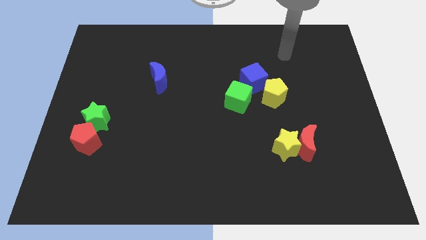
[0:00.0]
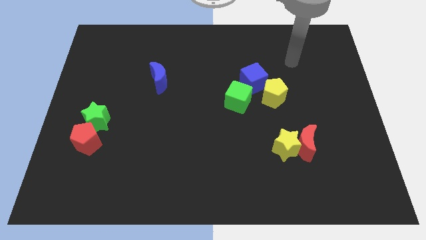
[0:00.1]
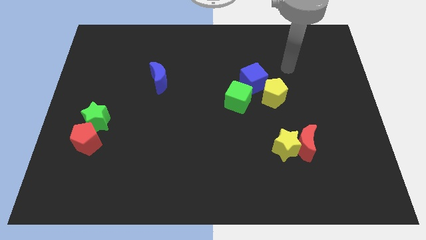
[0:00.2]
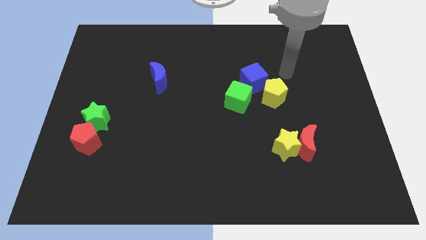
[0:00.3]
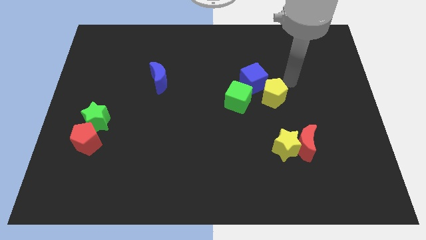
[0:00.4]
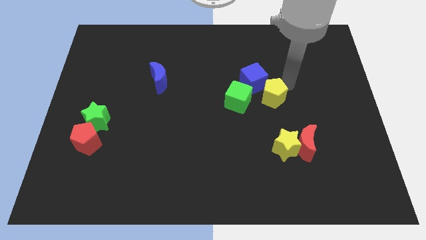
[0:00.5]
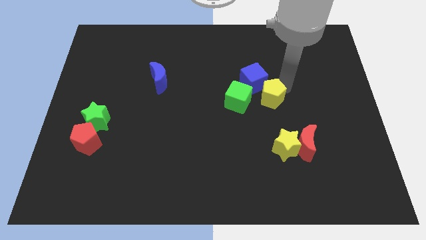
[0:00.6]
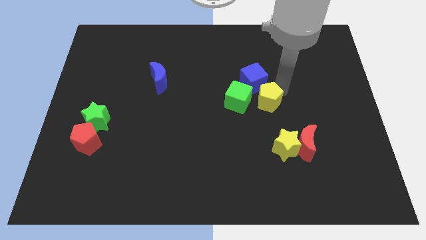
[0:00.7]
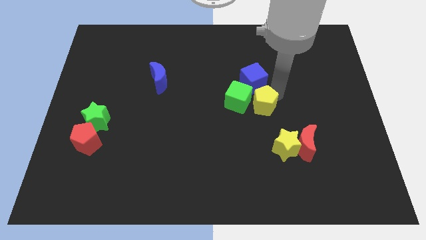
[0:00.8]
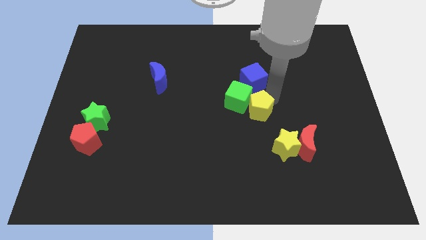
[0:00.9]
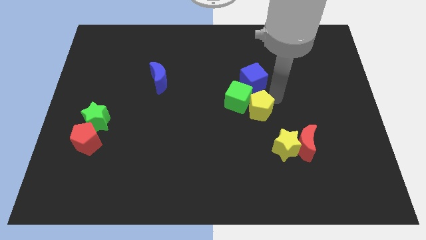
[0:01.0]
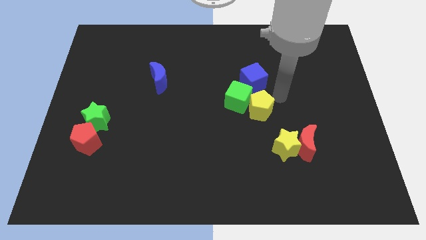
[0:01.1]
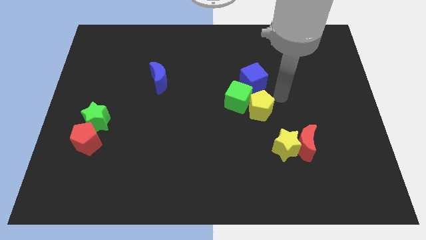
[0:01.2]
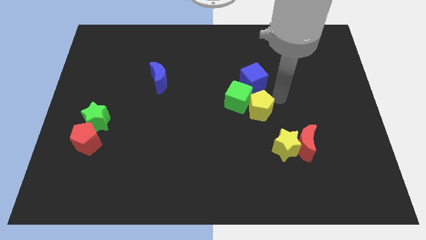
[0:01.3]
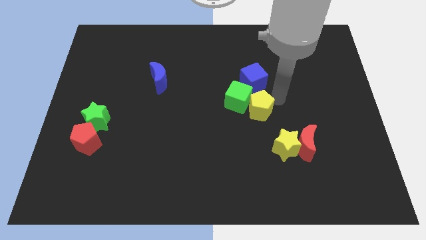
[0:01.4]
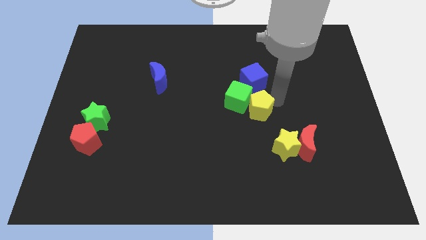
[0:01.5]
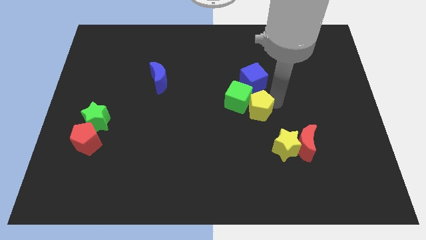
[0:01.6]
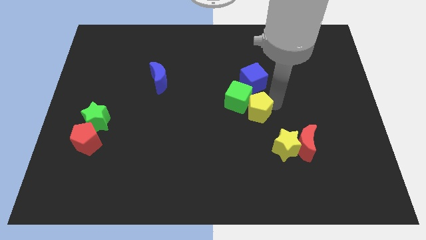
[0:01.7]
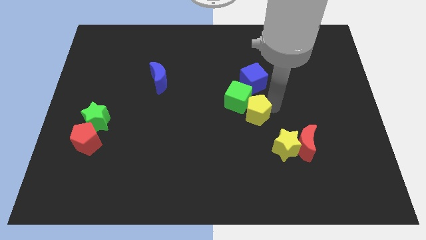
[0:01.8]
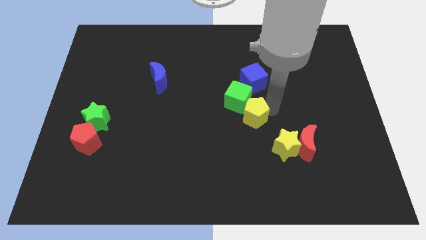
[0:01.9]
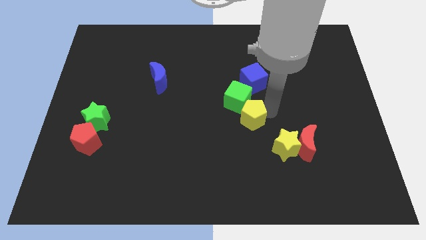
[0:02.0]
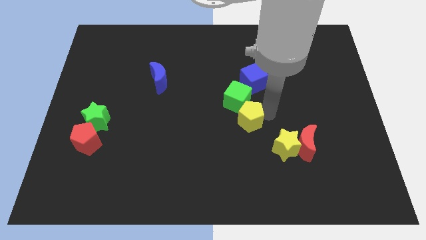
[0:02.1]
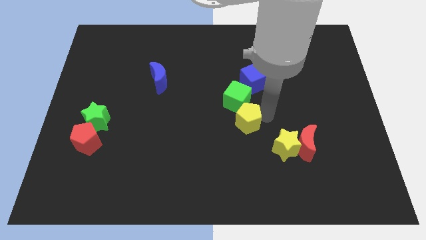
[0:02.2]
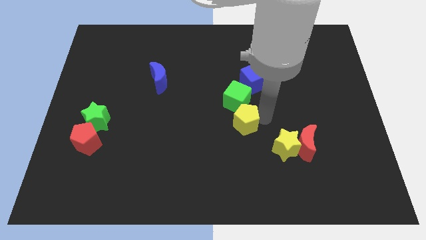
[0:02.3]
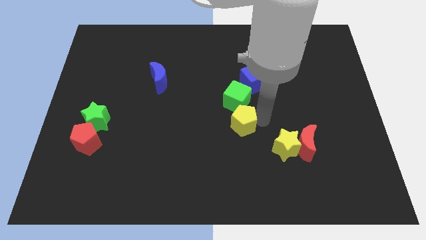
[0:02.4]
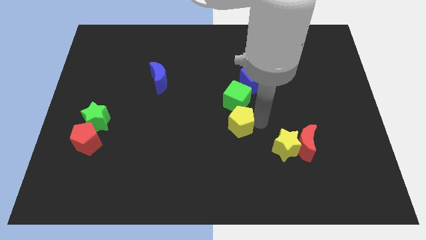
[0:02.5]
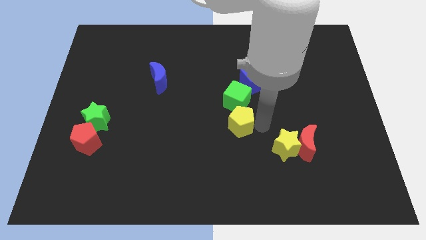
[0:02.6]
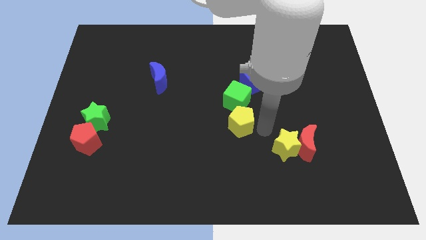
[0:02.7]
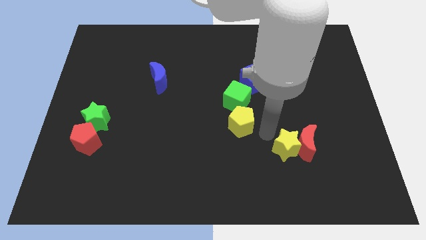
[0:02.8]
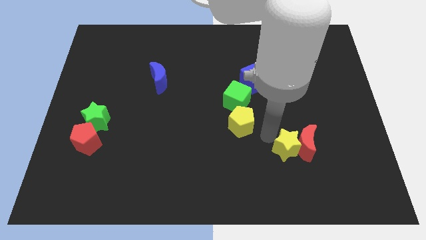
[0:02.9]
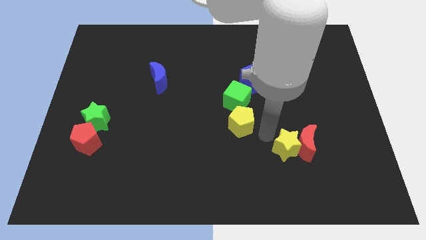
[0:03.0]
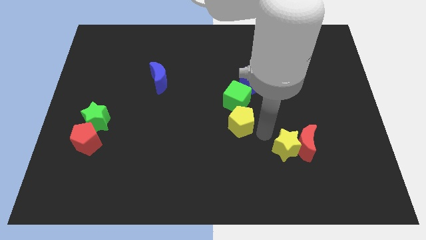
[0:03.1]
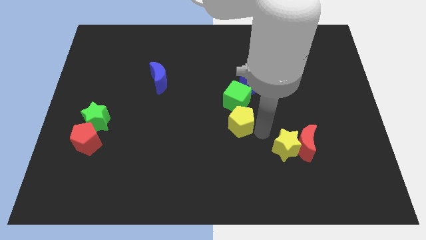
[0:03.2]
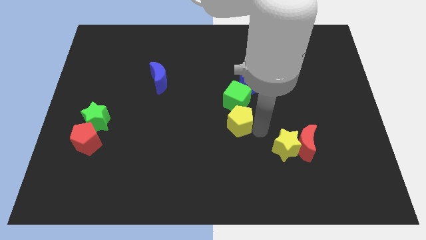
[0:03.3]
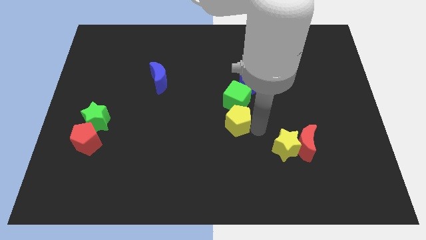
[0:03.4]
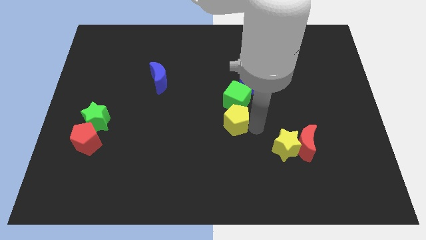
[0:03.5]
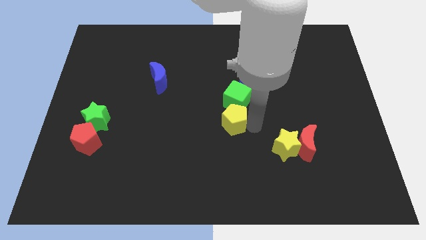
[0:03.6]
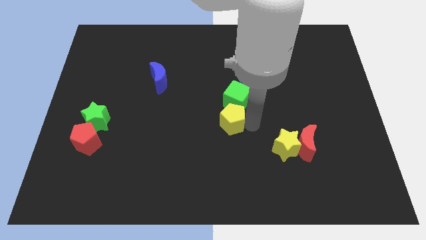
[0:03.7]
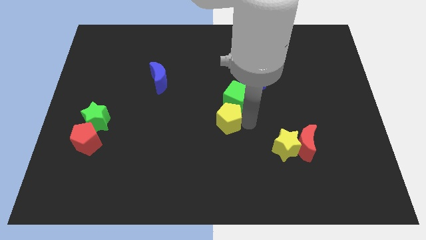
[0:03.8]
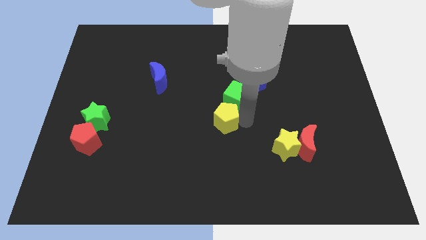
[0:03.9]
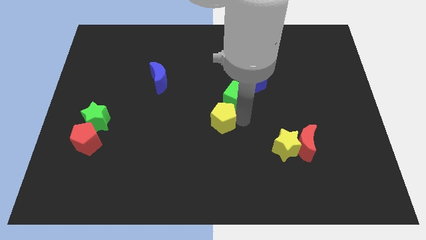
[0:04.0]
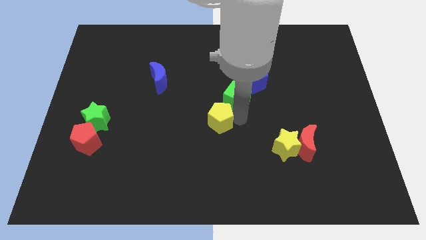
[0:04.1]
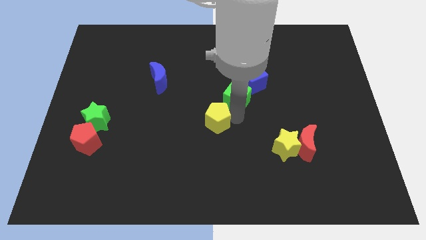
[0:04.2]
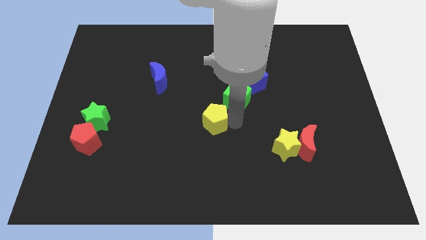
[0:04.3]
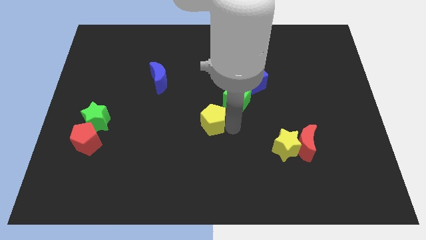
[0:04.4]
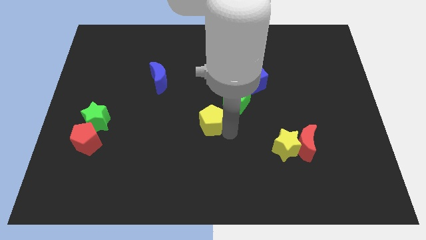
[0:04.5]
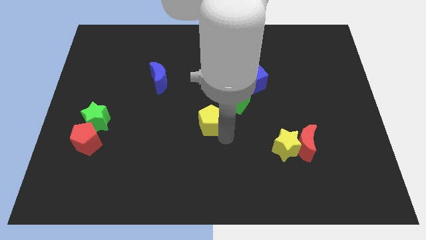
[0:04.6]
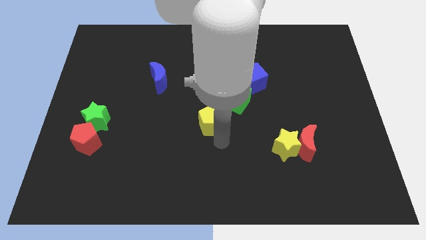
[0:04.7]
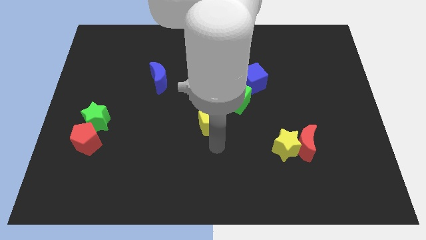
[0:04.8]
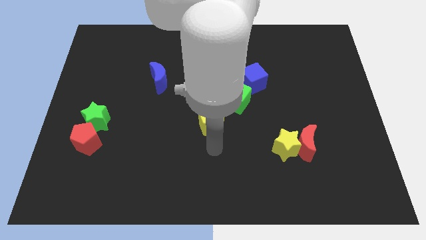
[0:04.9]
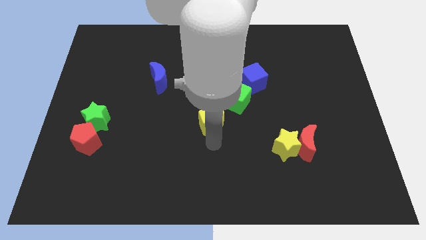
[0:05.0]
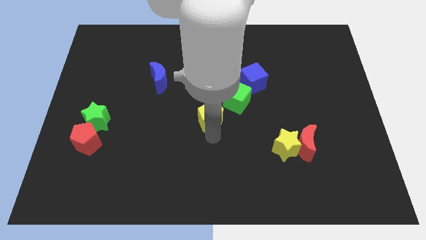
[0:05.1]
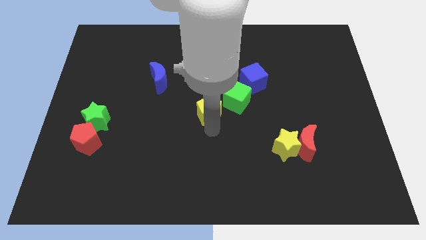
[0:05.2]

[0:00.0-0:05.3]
slide the yellow pentagon to the left side of the green cube

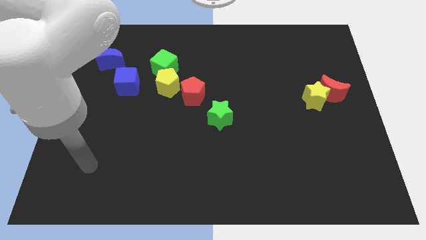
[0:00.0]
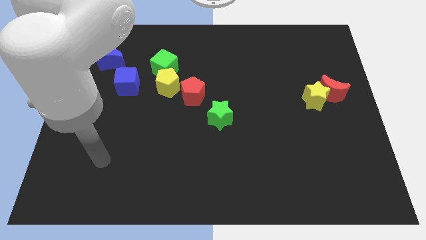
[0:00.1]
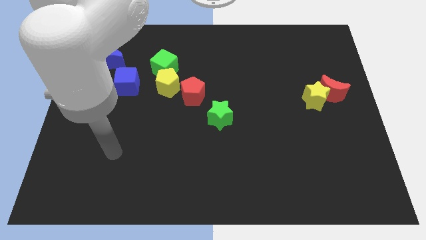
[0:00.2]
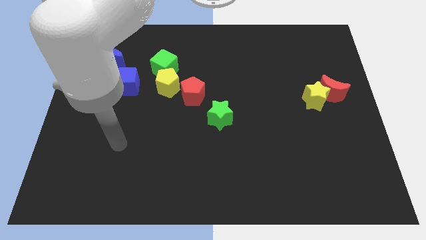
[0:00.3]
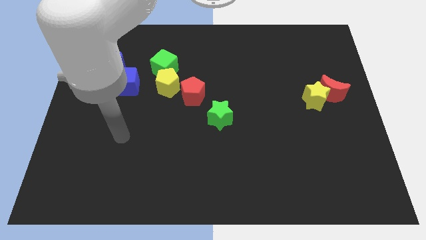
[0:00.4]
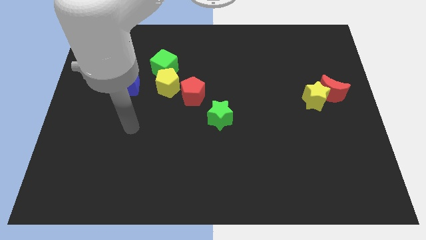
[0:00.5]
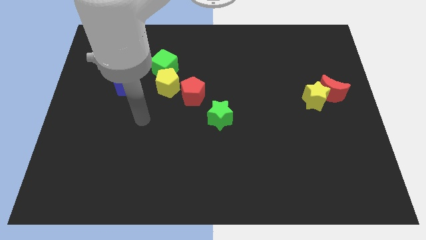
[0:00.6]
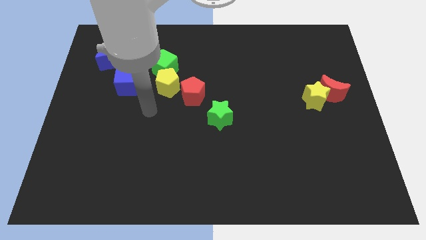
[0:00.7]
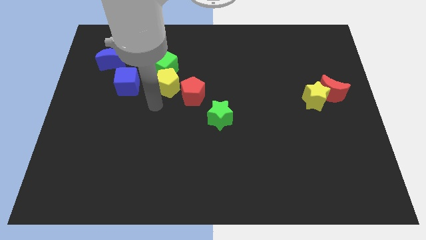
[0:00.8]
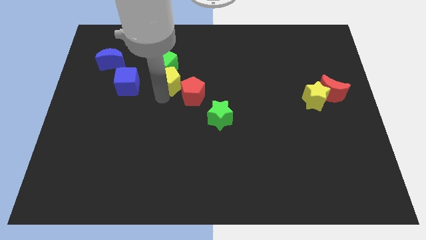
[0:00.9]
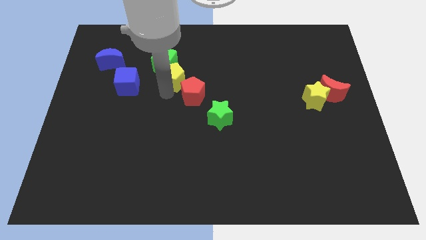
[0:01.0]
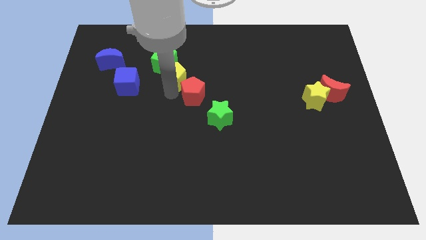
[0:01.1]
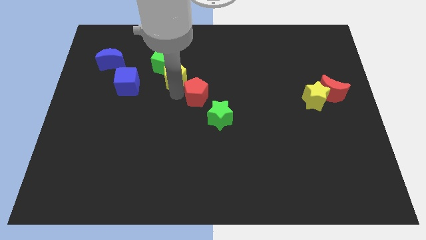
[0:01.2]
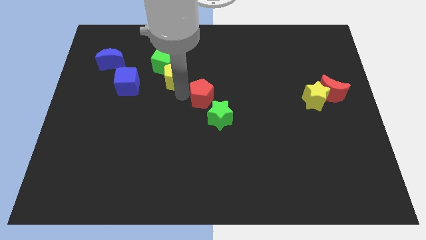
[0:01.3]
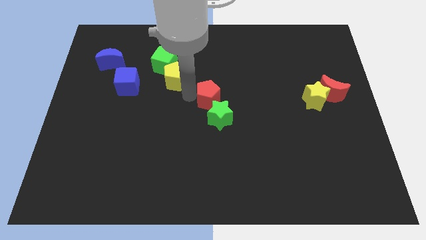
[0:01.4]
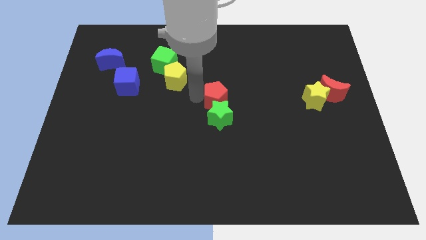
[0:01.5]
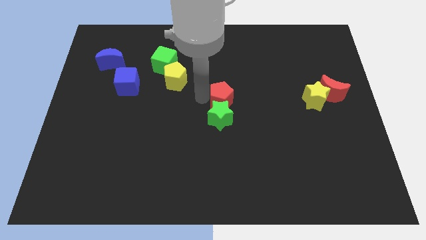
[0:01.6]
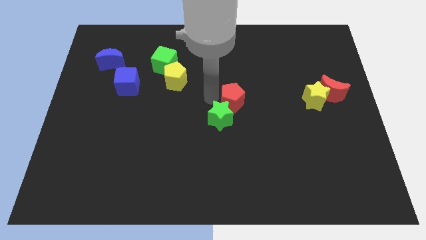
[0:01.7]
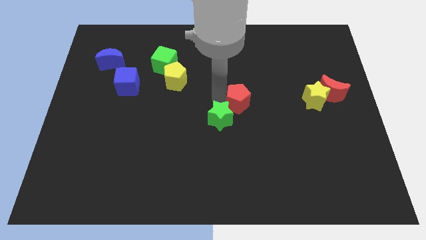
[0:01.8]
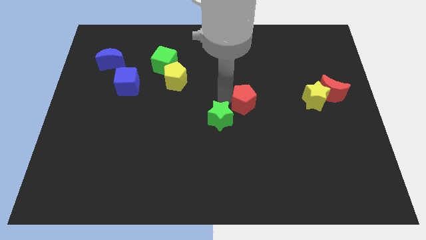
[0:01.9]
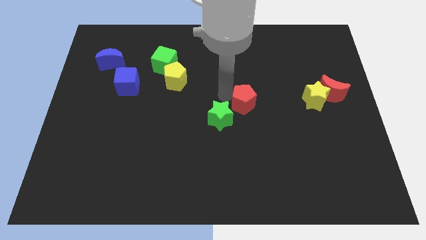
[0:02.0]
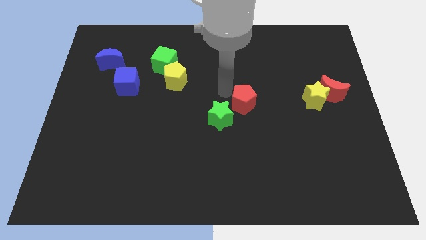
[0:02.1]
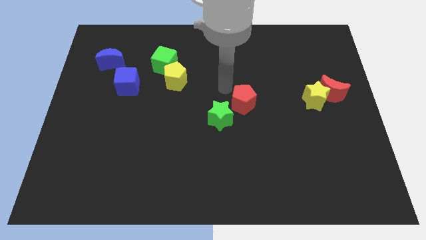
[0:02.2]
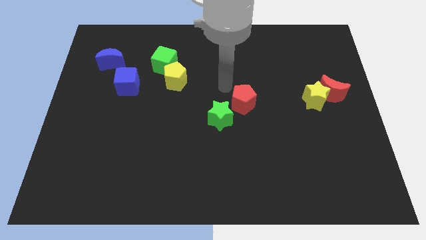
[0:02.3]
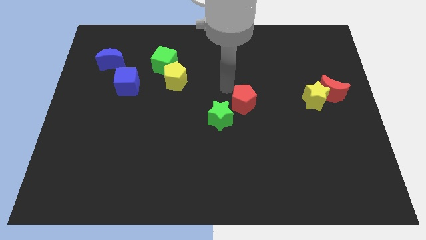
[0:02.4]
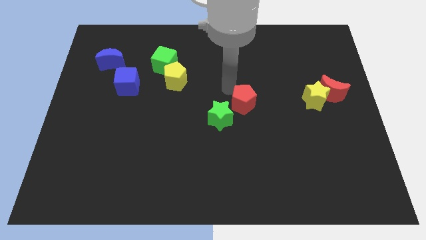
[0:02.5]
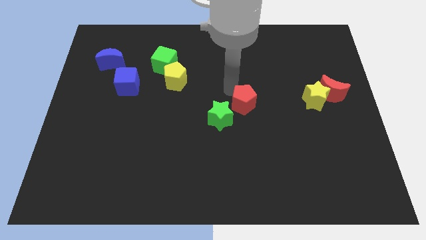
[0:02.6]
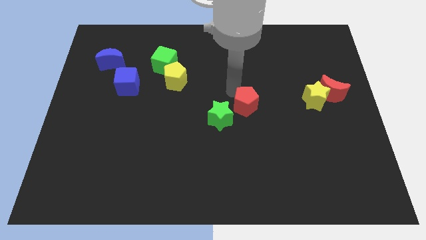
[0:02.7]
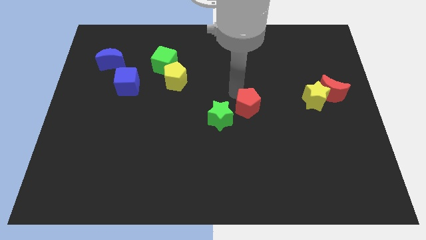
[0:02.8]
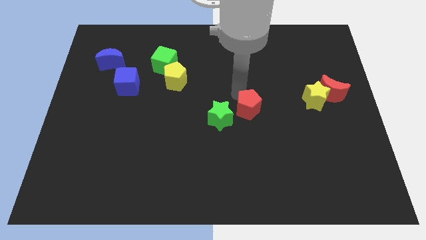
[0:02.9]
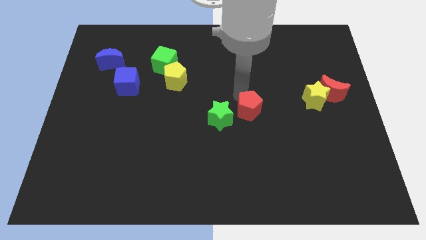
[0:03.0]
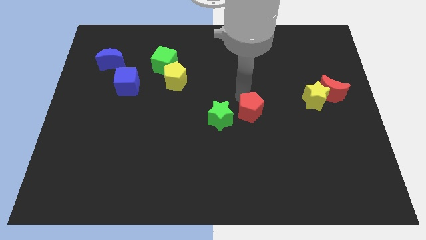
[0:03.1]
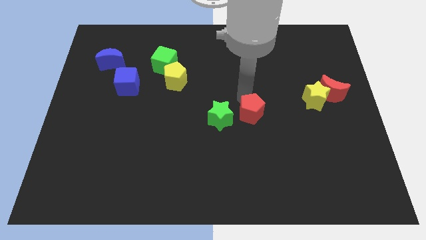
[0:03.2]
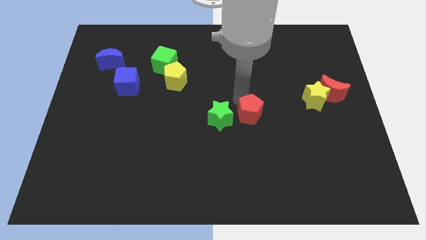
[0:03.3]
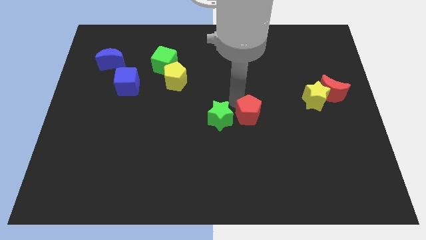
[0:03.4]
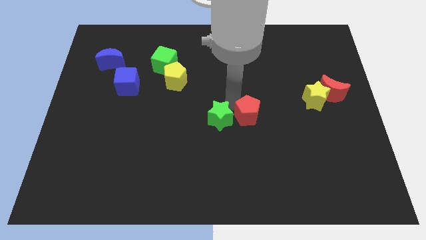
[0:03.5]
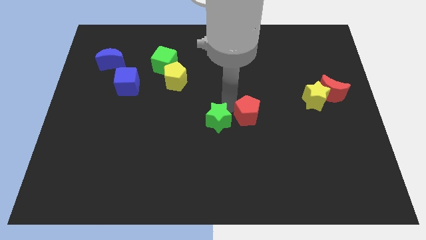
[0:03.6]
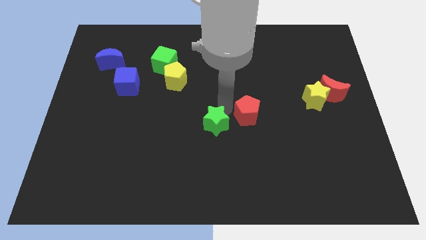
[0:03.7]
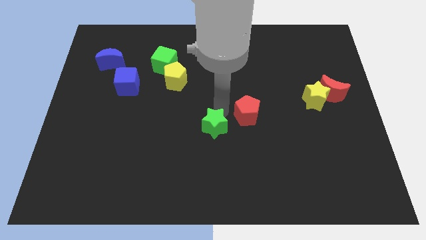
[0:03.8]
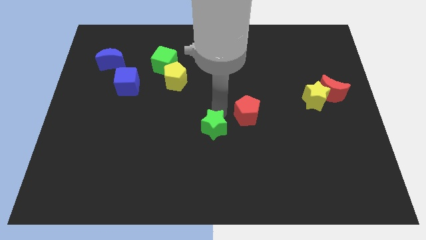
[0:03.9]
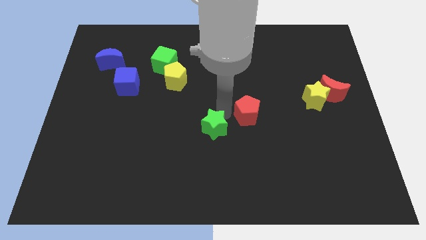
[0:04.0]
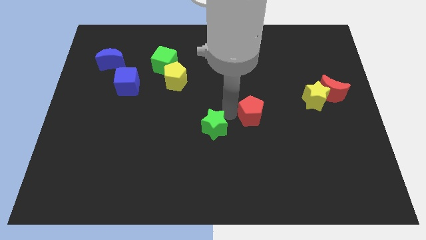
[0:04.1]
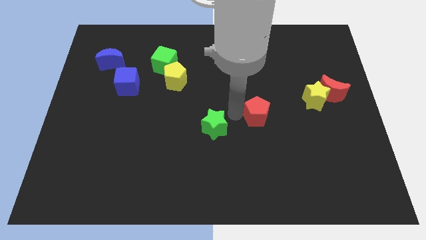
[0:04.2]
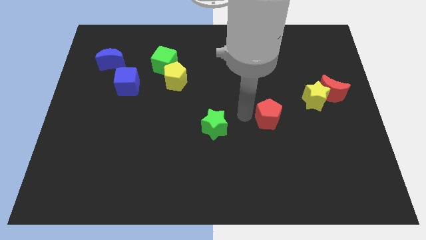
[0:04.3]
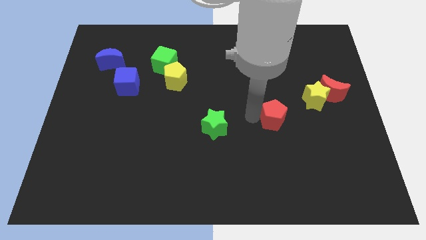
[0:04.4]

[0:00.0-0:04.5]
put the red pentagon to the bottom left of the yellow star
